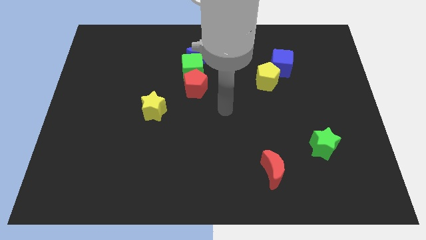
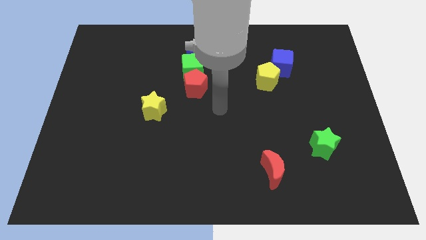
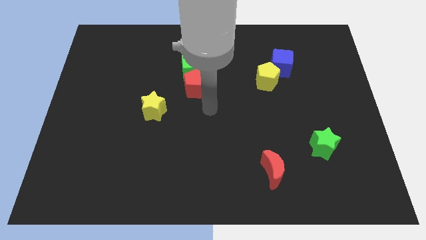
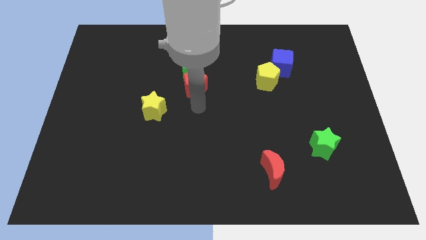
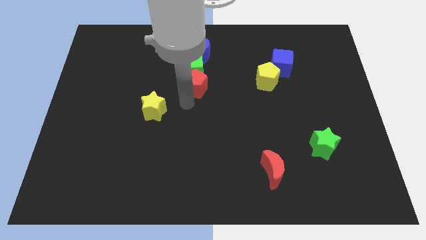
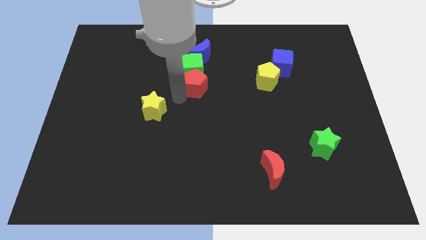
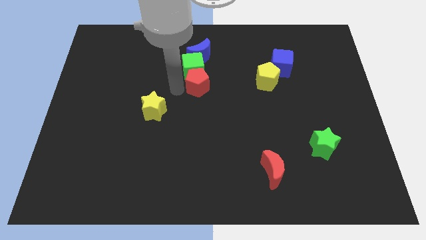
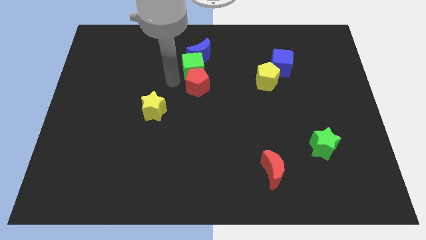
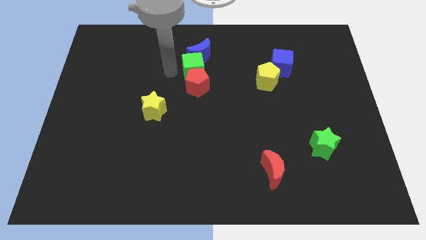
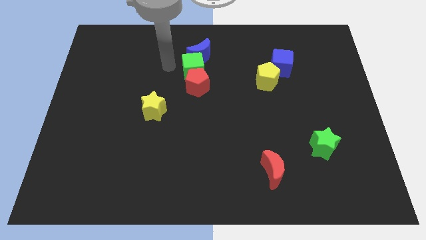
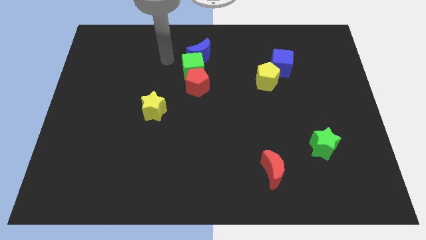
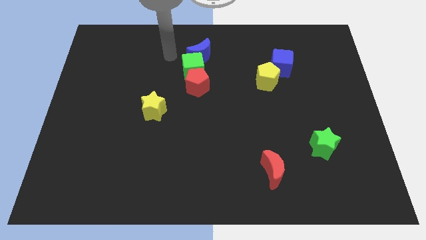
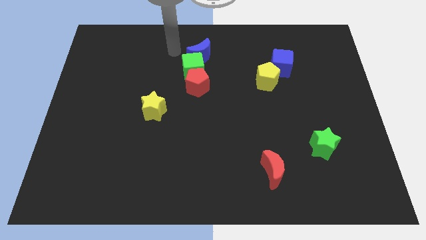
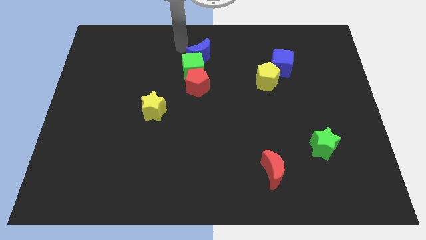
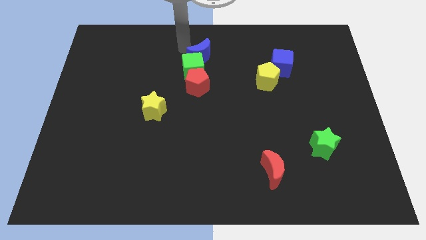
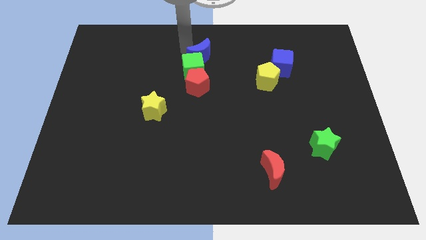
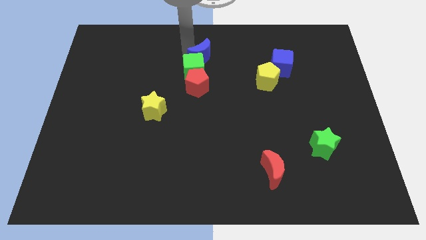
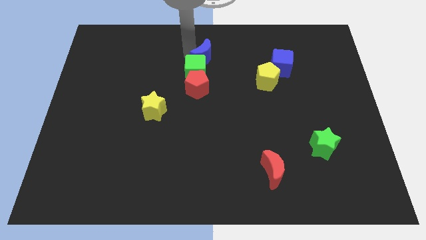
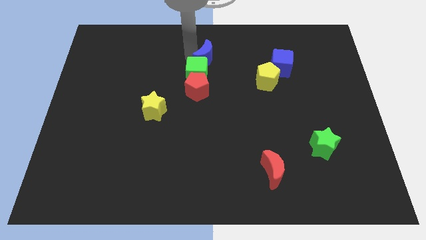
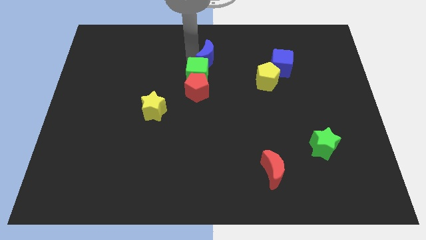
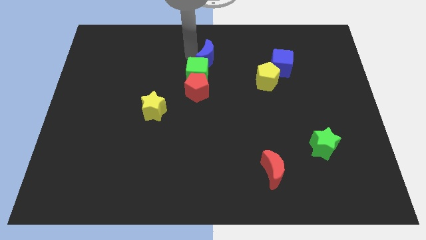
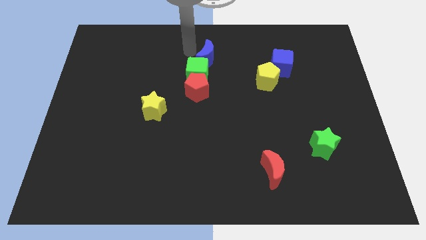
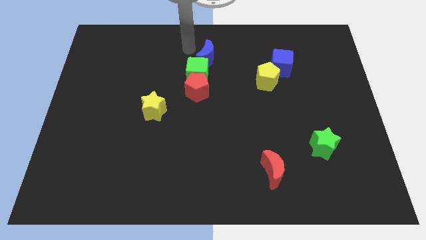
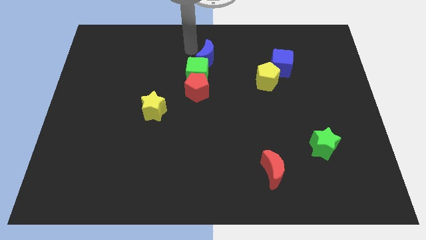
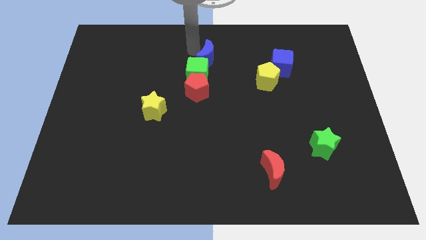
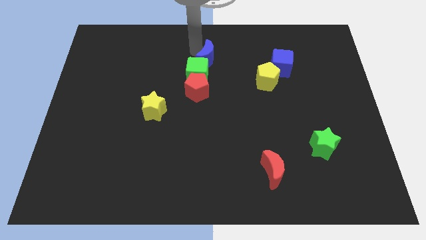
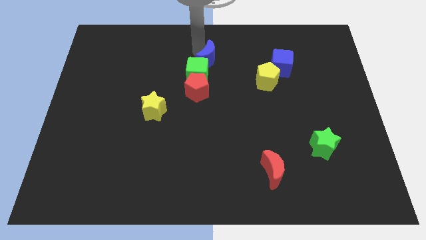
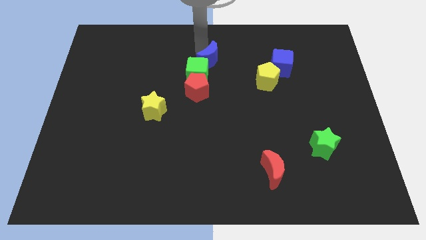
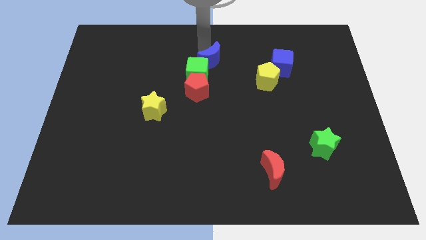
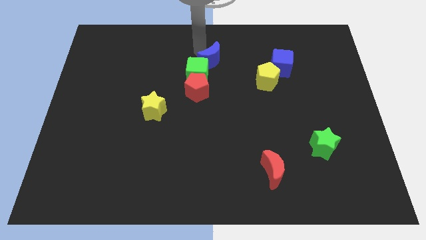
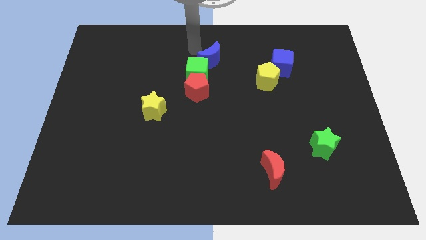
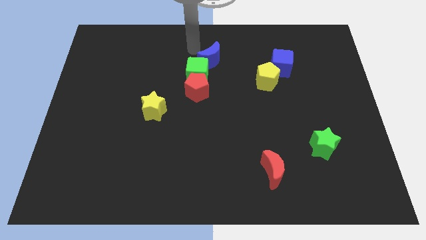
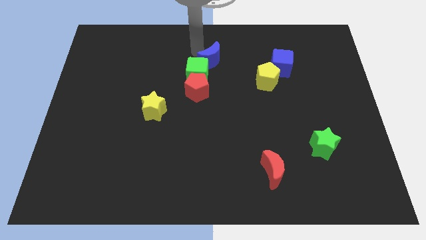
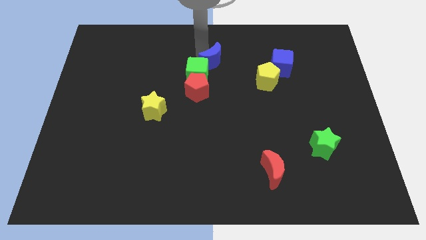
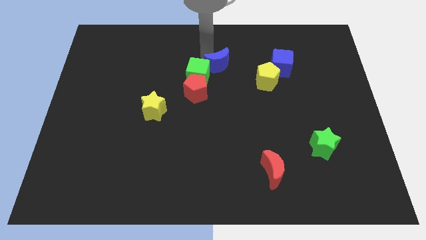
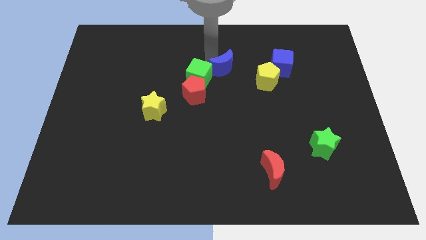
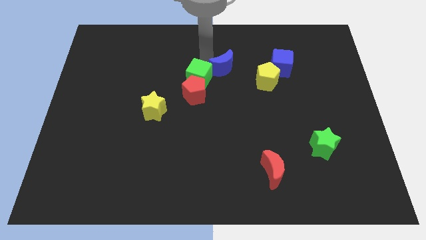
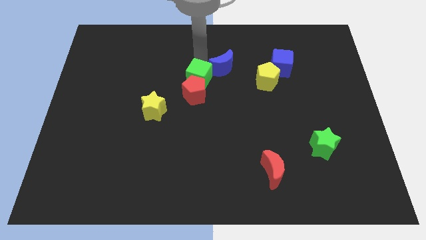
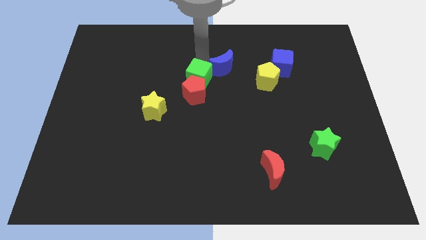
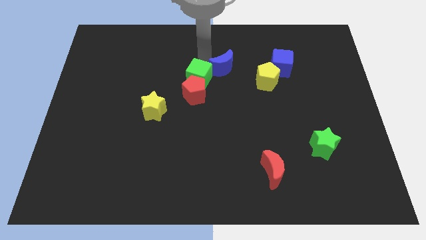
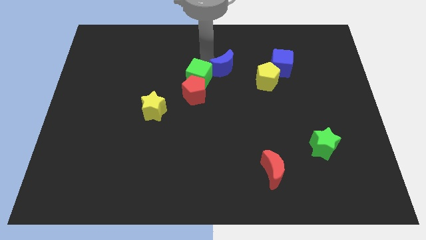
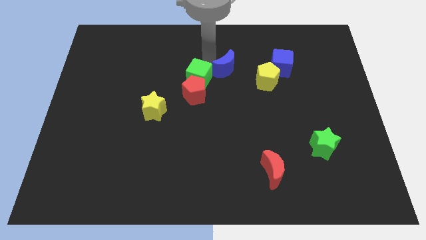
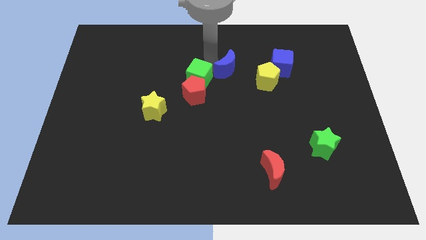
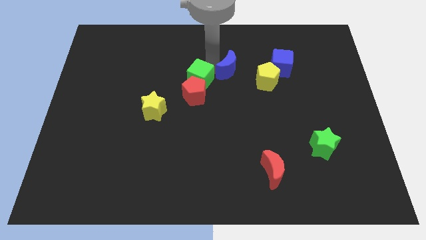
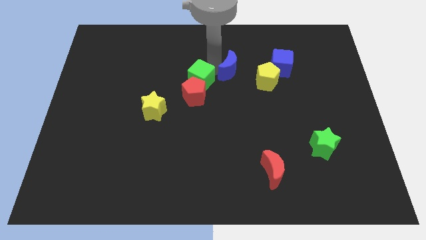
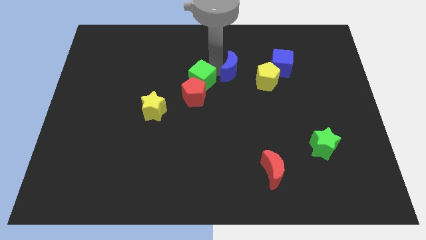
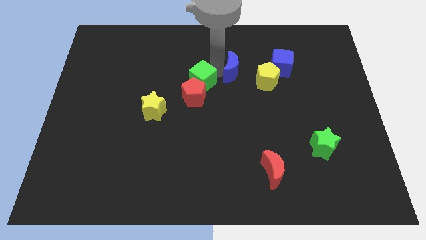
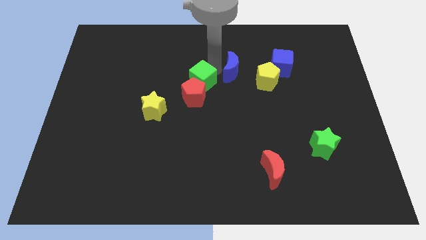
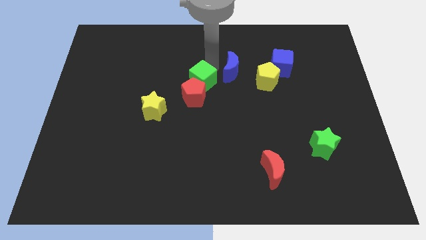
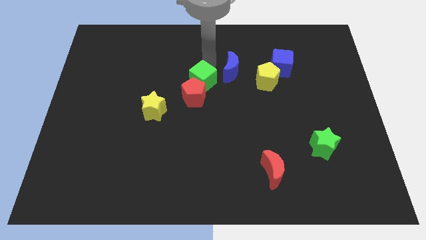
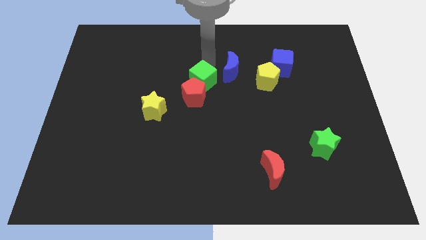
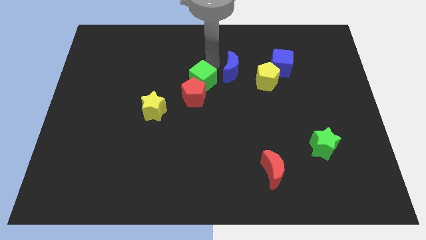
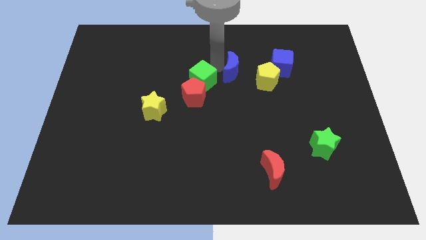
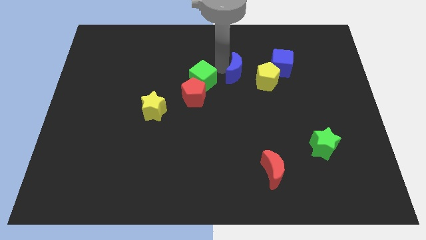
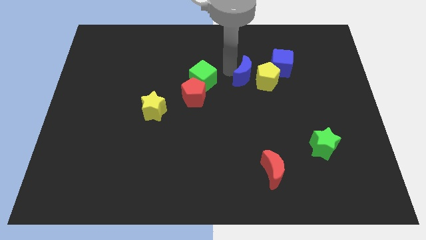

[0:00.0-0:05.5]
push the blue moon close to the yellow pentagon

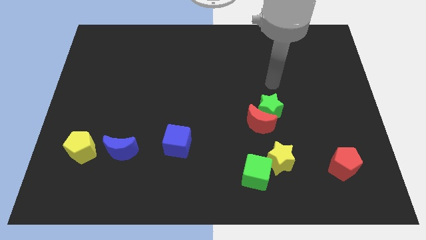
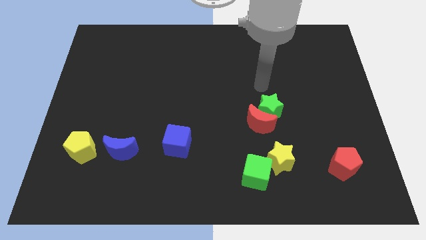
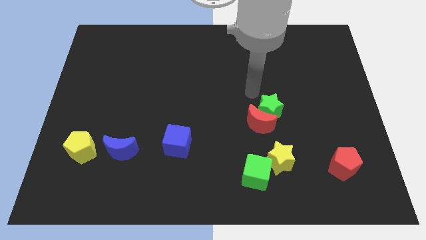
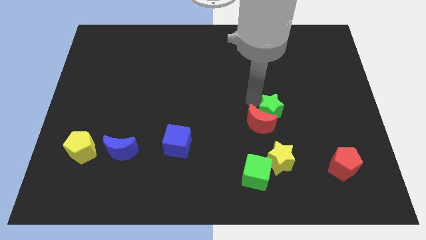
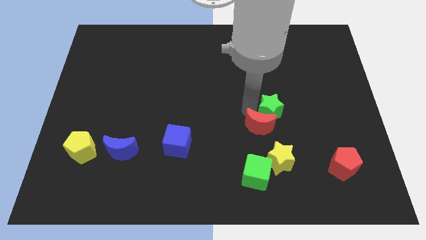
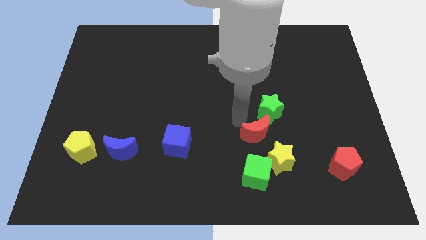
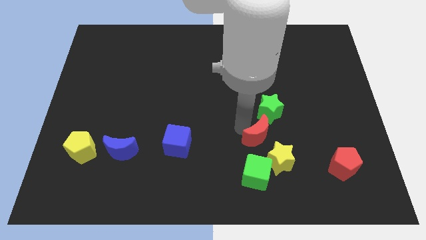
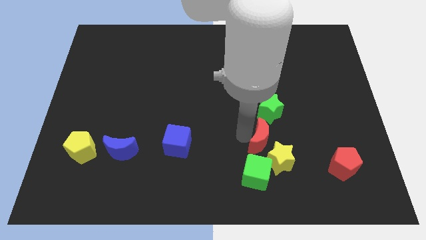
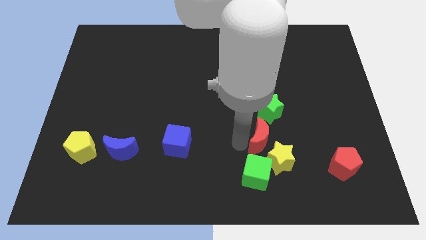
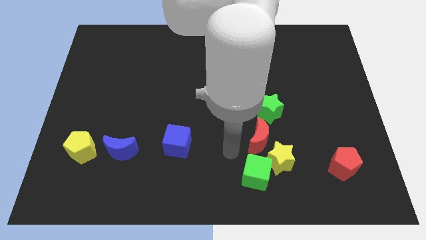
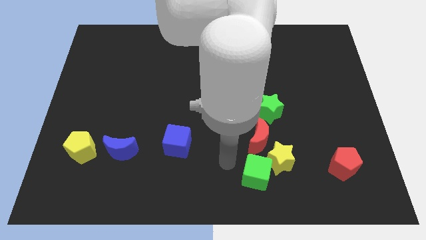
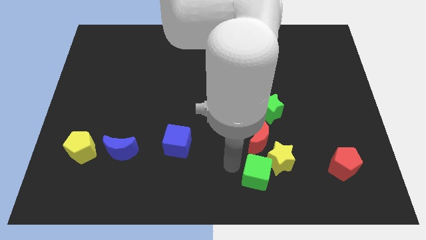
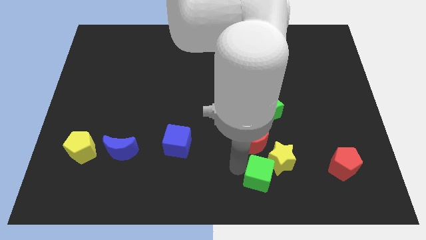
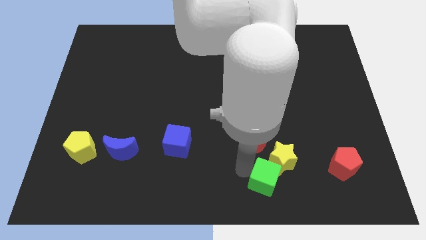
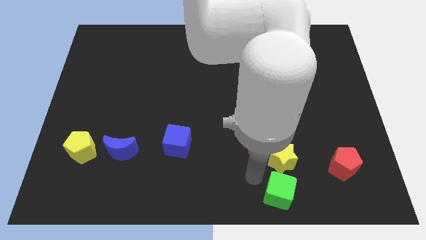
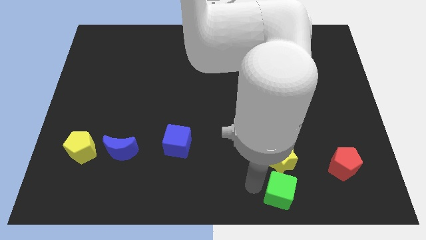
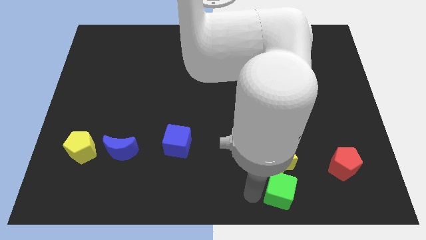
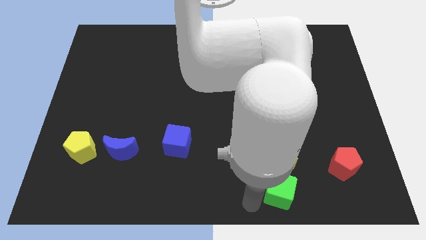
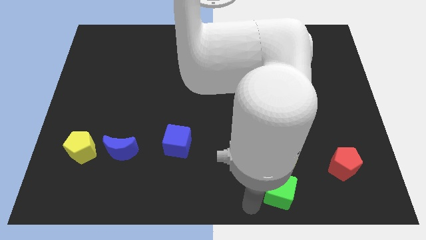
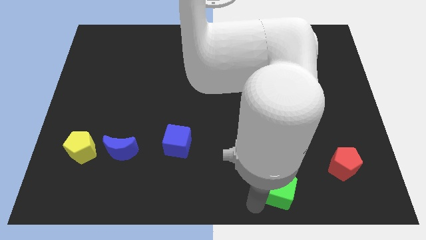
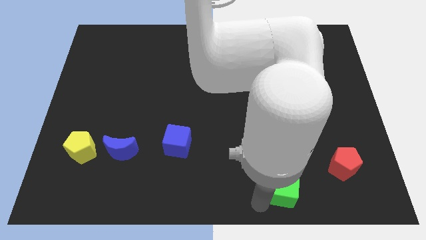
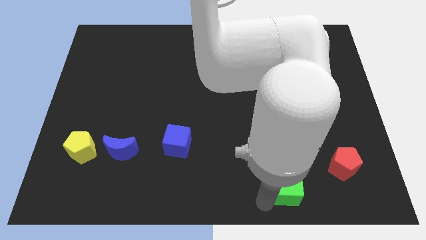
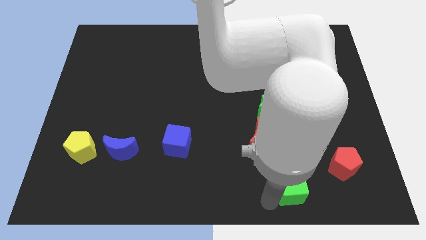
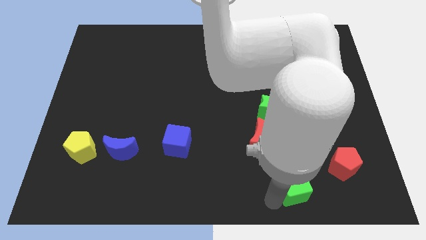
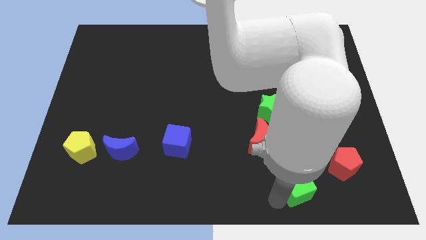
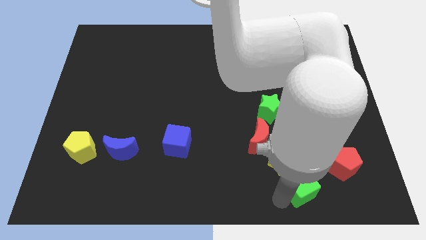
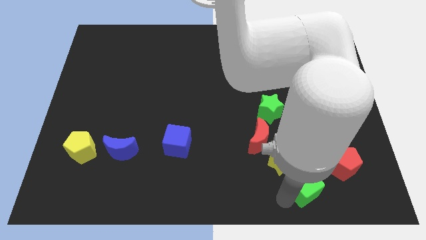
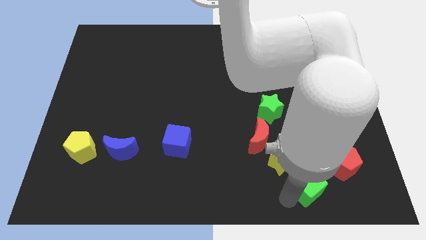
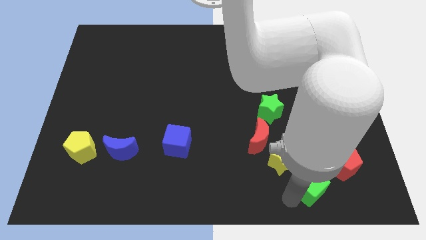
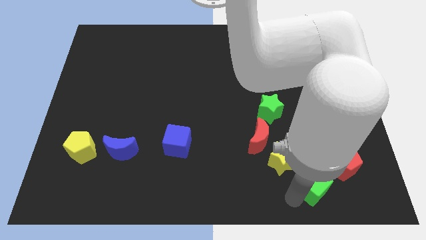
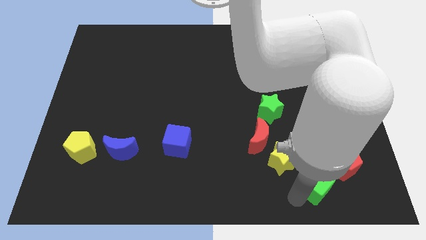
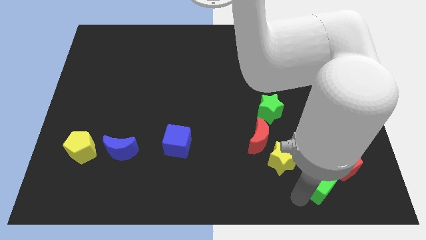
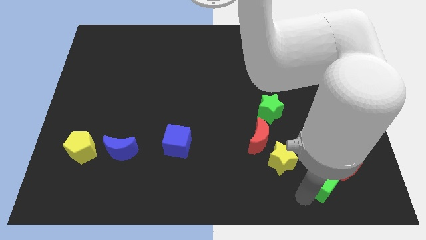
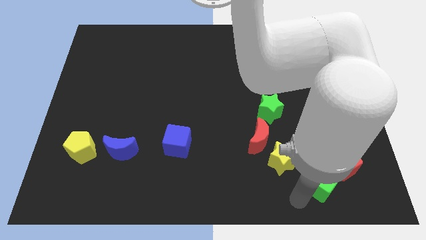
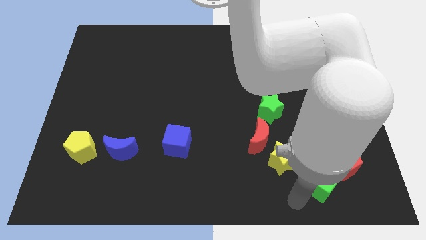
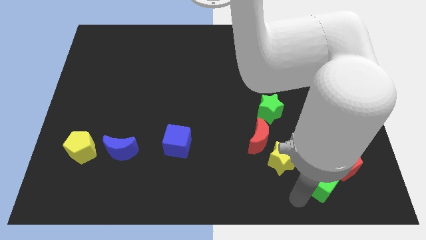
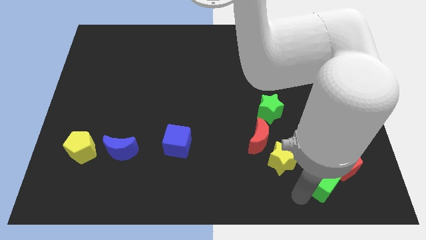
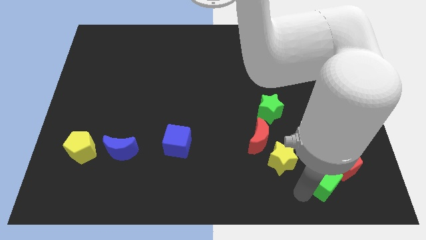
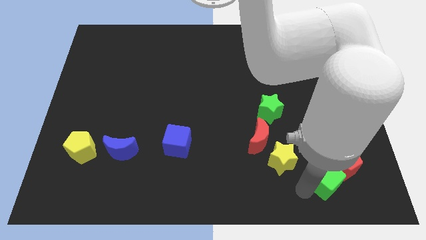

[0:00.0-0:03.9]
slide the green cube to the red pentagon
